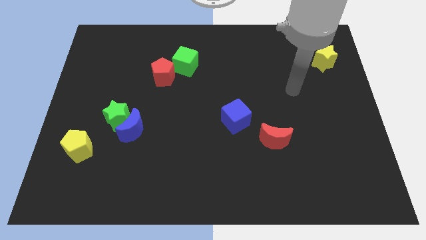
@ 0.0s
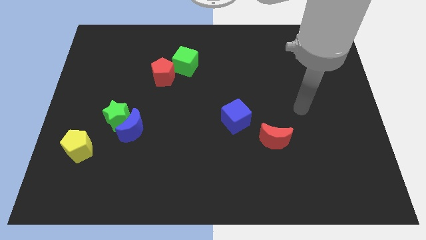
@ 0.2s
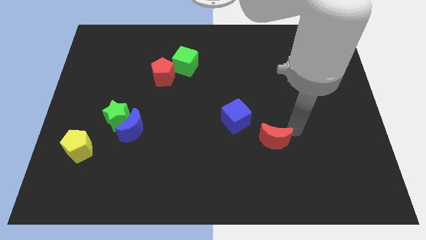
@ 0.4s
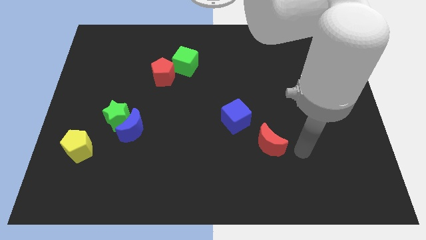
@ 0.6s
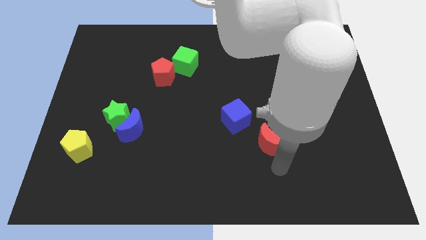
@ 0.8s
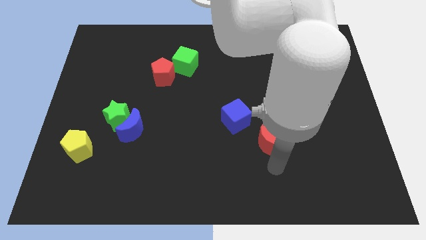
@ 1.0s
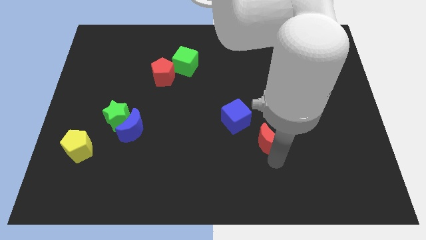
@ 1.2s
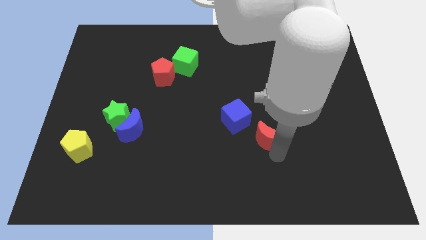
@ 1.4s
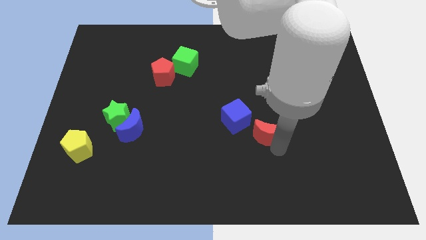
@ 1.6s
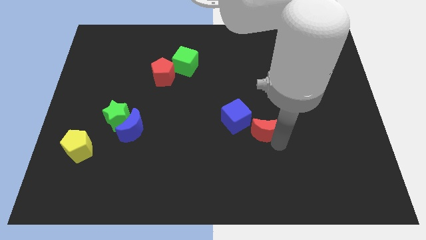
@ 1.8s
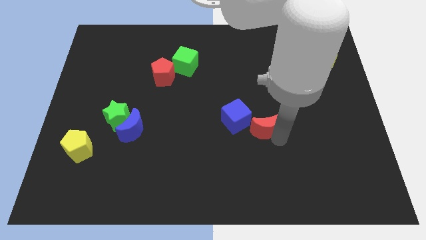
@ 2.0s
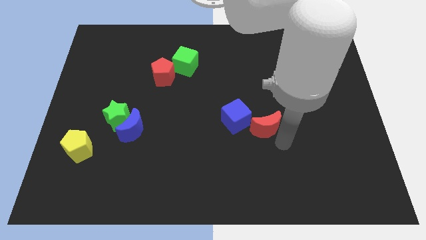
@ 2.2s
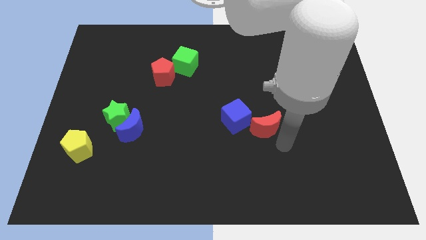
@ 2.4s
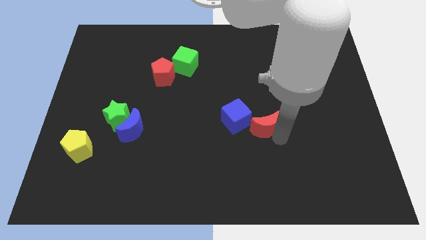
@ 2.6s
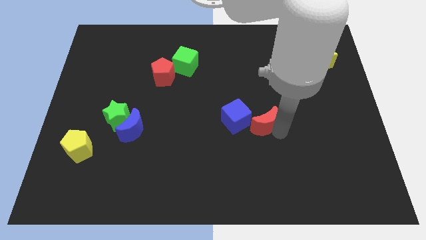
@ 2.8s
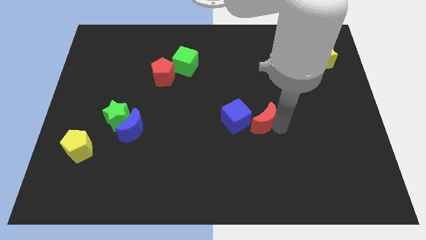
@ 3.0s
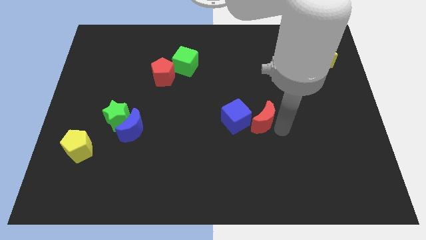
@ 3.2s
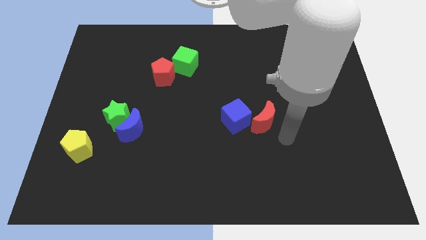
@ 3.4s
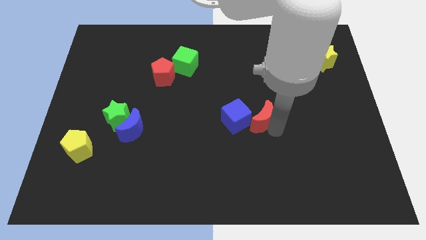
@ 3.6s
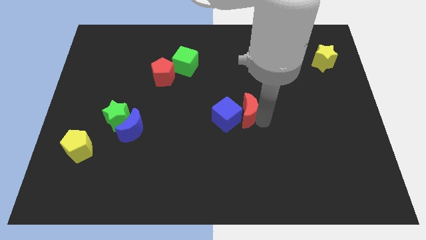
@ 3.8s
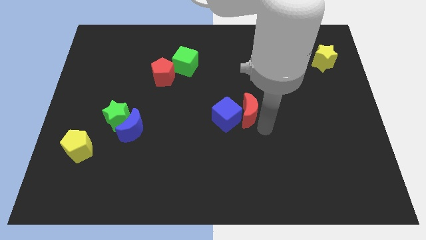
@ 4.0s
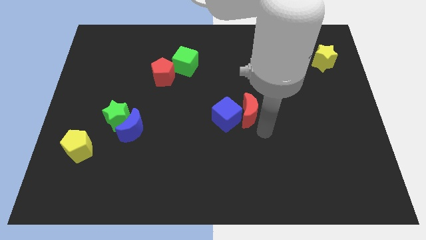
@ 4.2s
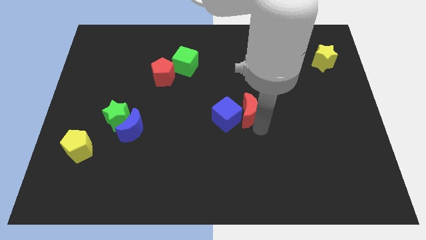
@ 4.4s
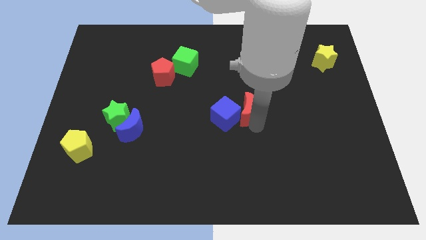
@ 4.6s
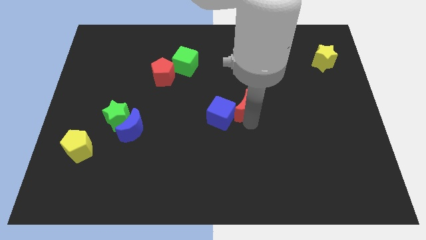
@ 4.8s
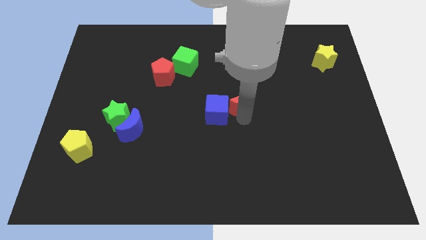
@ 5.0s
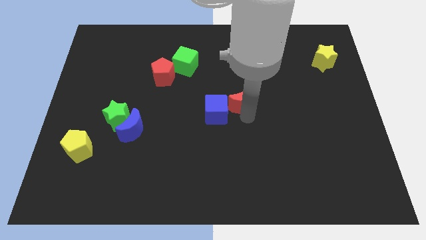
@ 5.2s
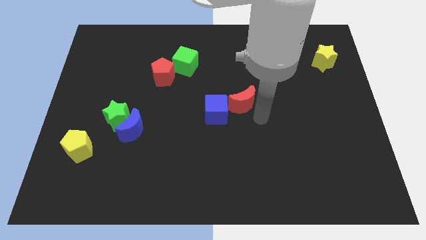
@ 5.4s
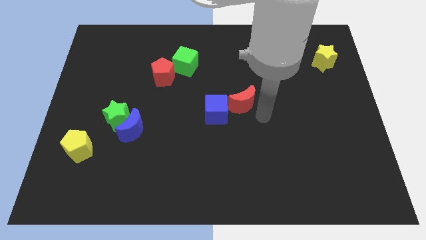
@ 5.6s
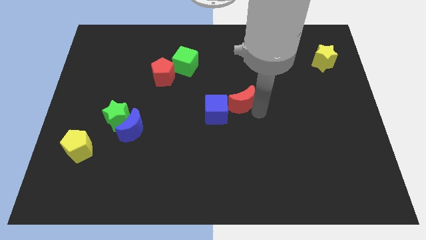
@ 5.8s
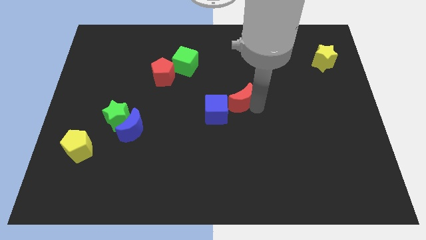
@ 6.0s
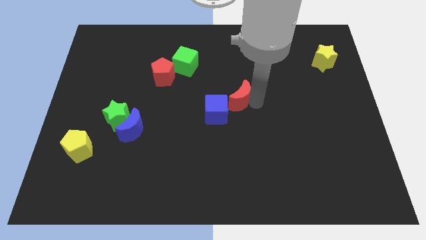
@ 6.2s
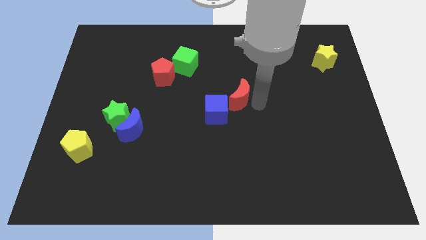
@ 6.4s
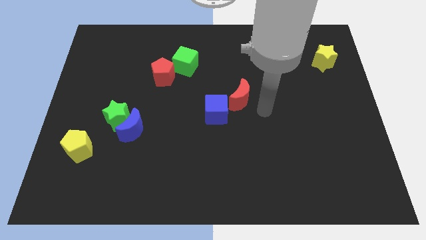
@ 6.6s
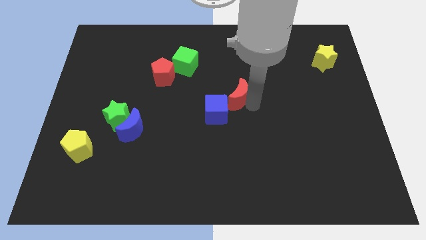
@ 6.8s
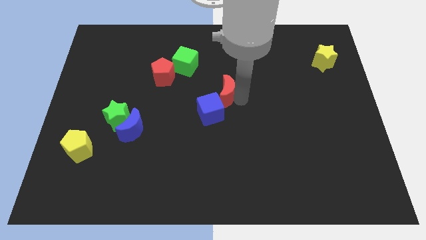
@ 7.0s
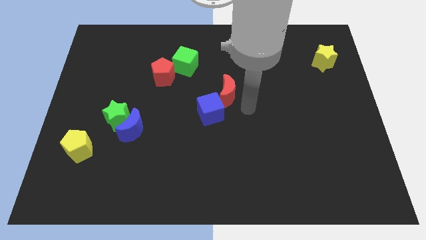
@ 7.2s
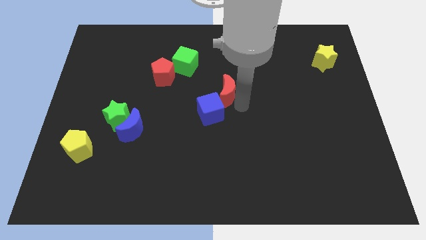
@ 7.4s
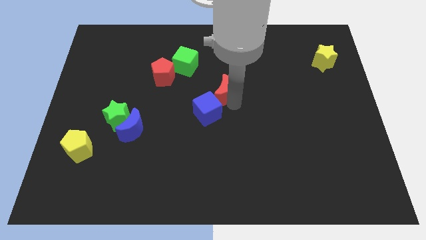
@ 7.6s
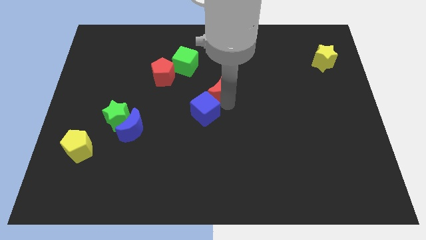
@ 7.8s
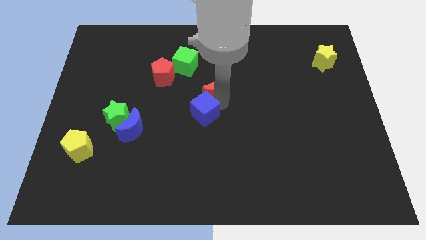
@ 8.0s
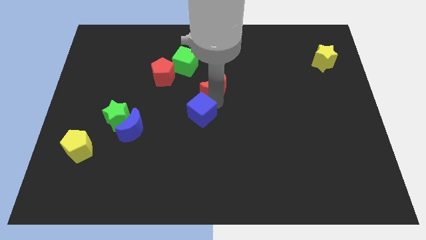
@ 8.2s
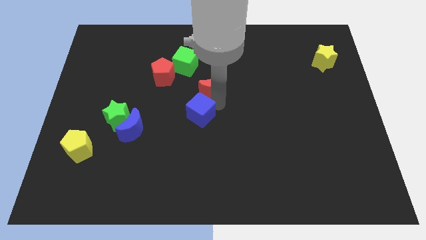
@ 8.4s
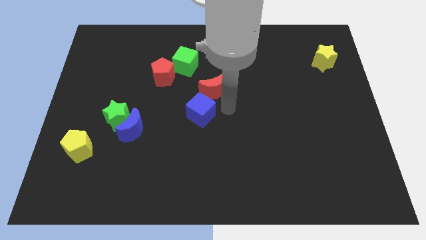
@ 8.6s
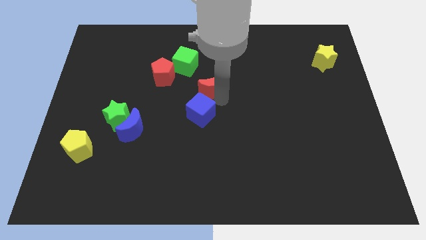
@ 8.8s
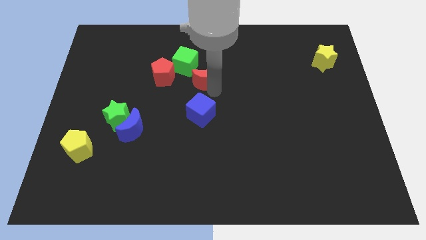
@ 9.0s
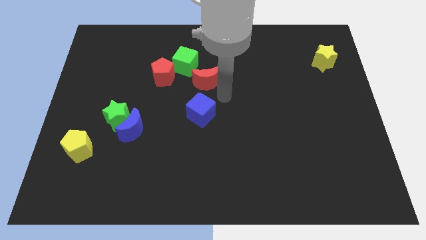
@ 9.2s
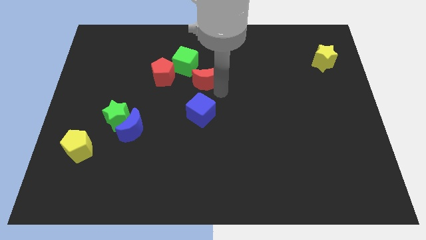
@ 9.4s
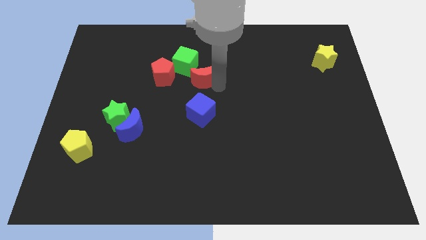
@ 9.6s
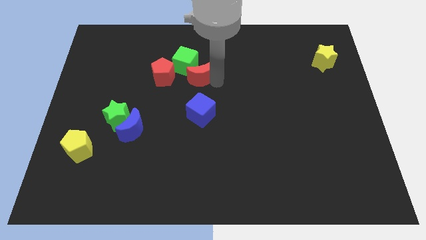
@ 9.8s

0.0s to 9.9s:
move the red moon close to the green cube
